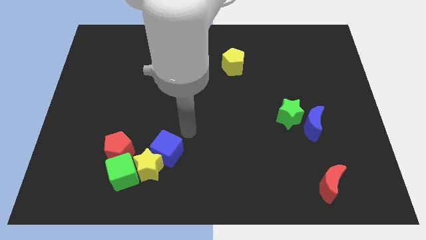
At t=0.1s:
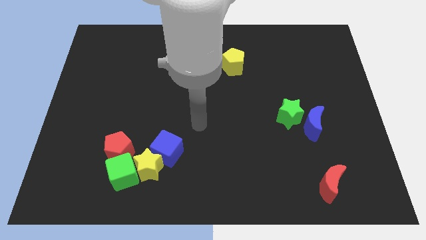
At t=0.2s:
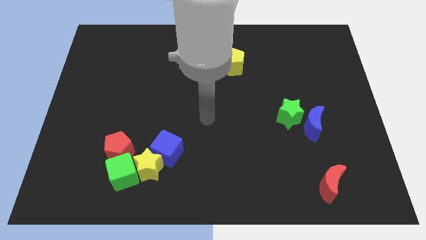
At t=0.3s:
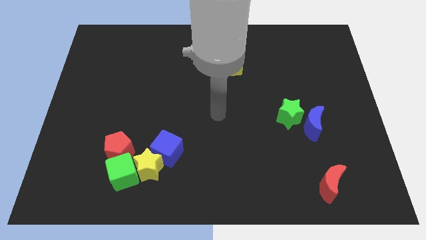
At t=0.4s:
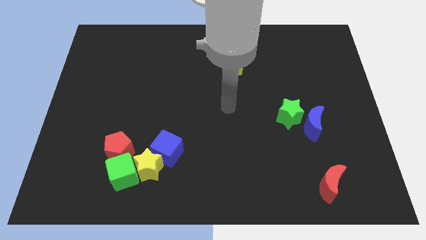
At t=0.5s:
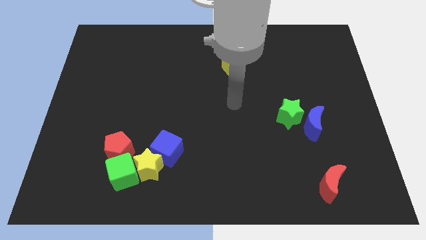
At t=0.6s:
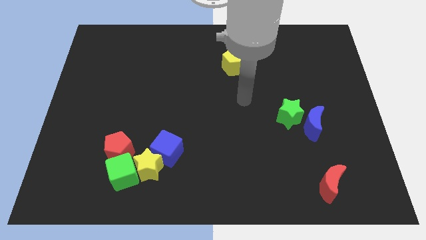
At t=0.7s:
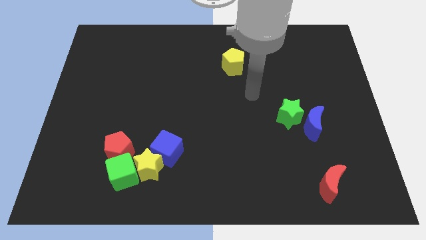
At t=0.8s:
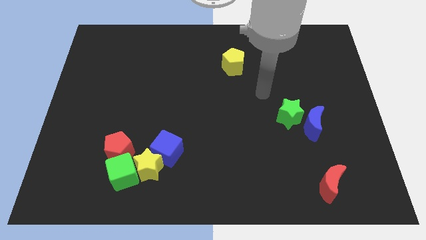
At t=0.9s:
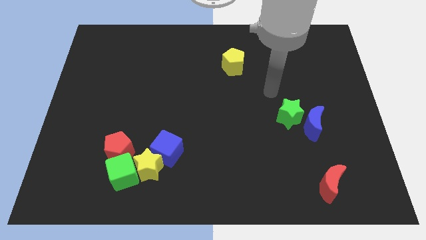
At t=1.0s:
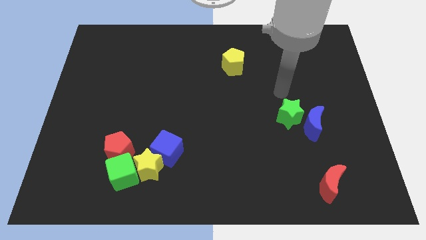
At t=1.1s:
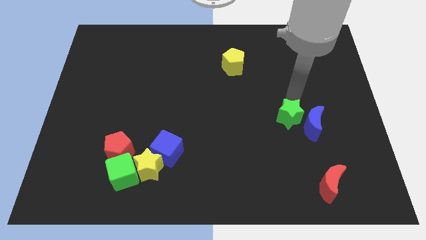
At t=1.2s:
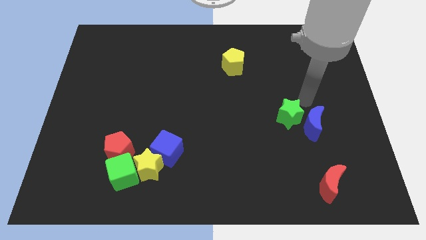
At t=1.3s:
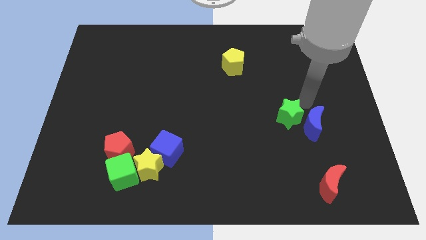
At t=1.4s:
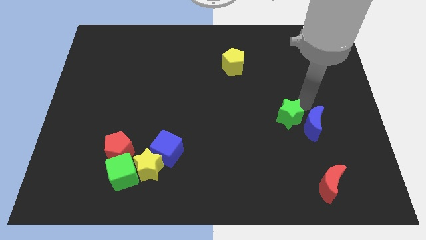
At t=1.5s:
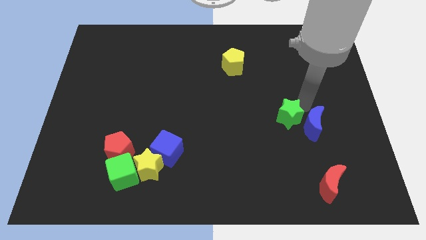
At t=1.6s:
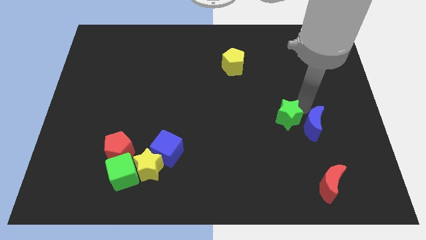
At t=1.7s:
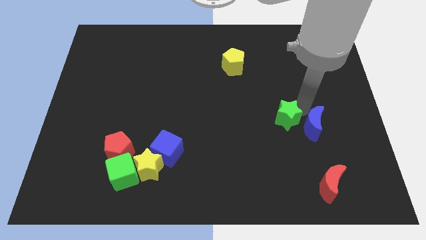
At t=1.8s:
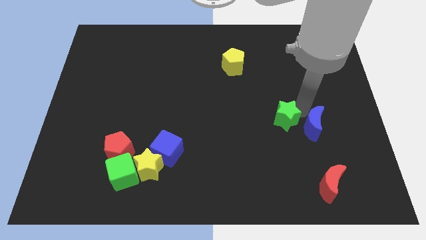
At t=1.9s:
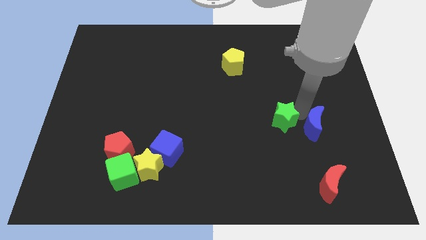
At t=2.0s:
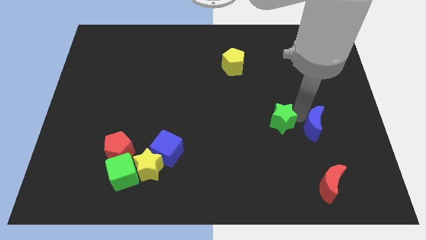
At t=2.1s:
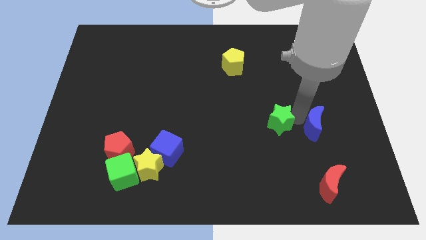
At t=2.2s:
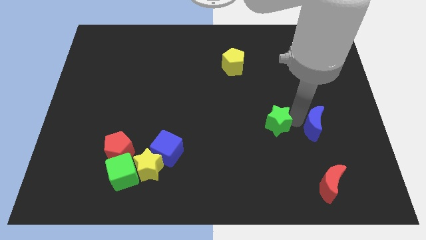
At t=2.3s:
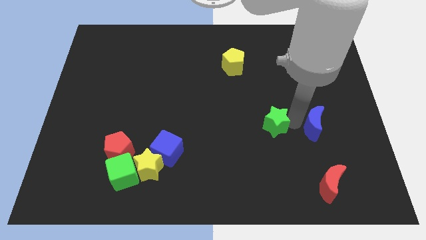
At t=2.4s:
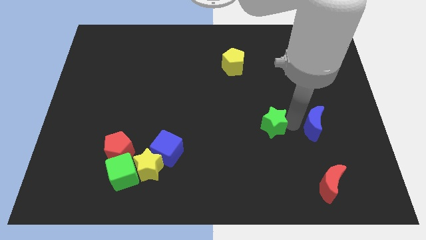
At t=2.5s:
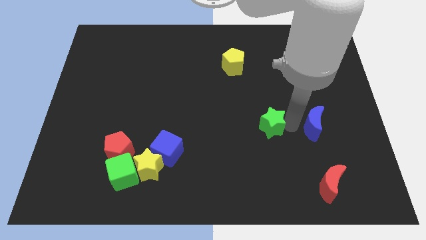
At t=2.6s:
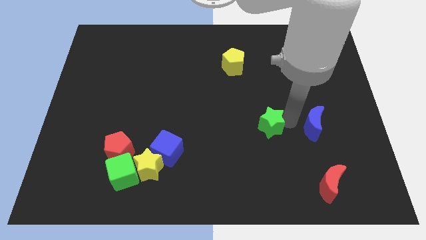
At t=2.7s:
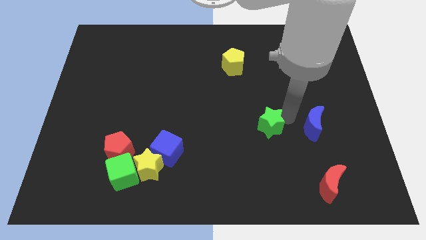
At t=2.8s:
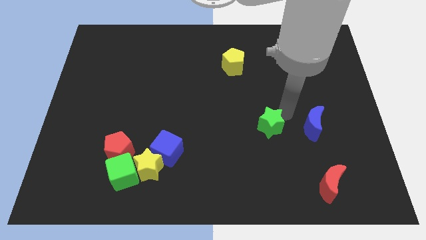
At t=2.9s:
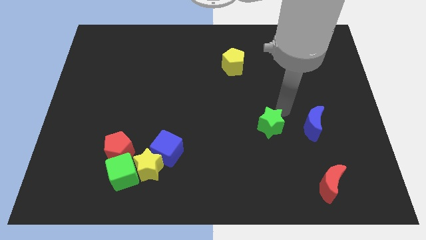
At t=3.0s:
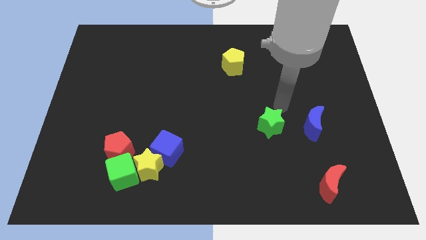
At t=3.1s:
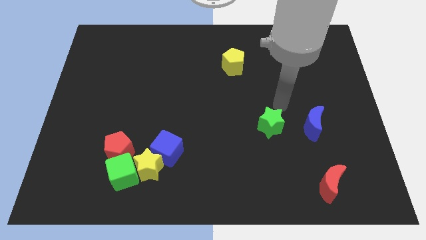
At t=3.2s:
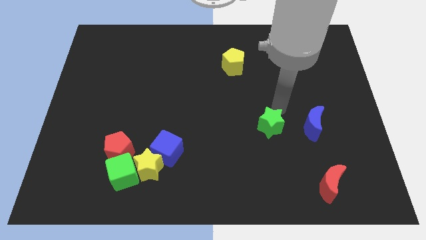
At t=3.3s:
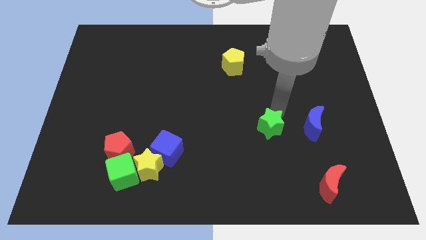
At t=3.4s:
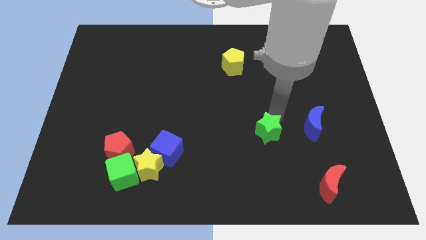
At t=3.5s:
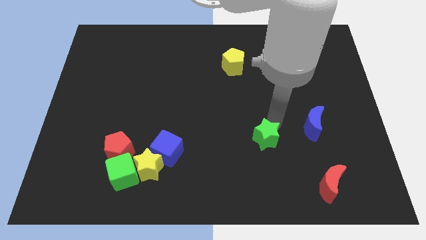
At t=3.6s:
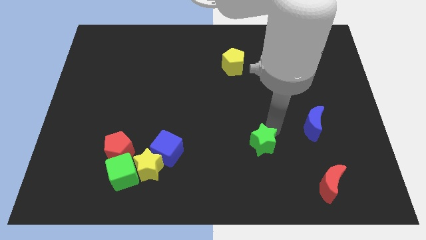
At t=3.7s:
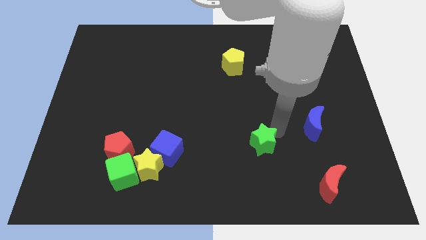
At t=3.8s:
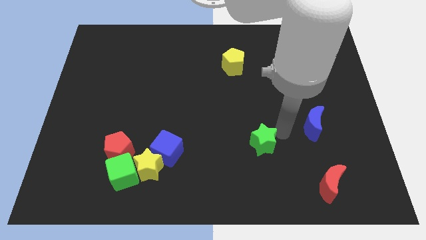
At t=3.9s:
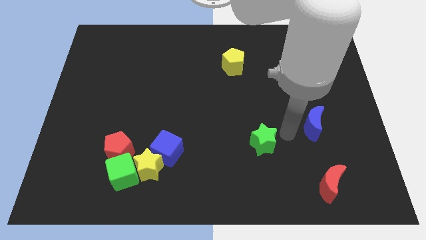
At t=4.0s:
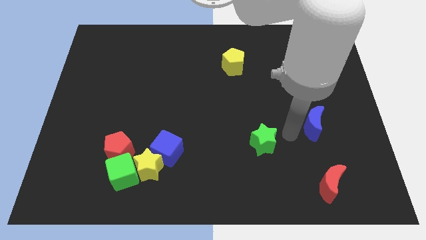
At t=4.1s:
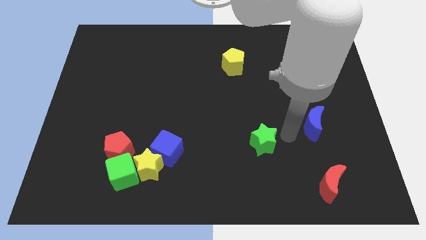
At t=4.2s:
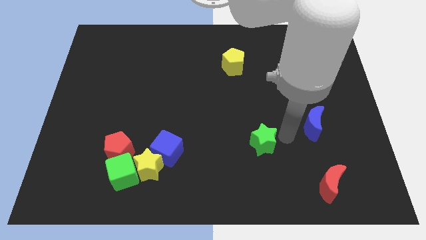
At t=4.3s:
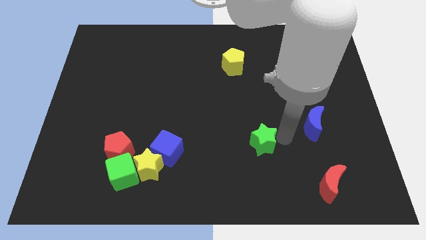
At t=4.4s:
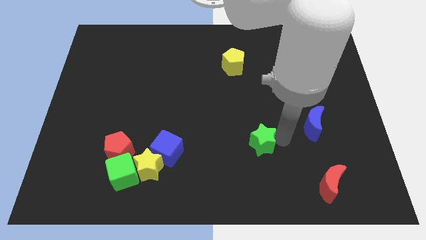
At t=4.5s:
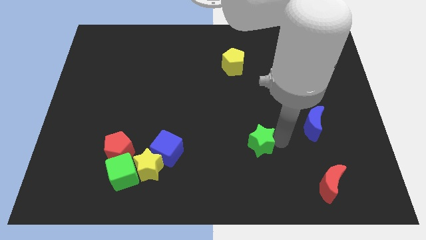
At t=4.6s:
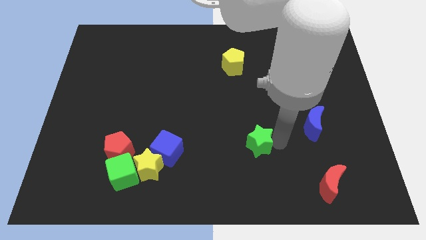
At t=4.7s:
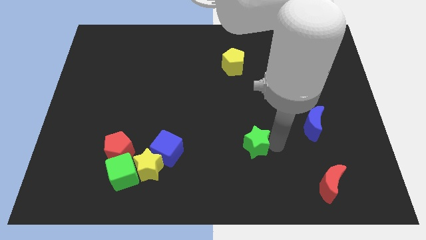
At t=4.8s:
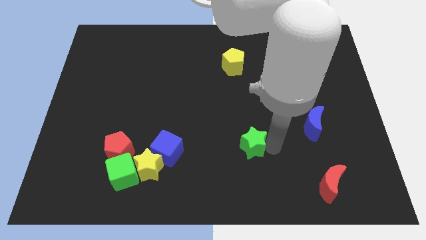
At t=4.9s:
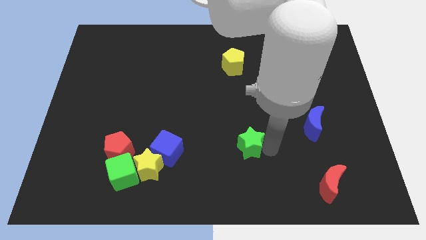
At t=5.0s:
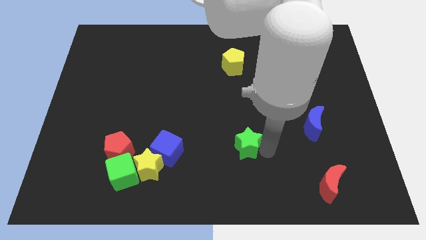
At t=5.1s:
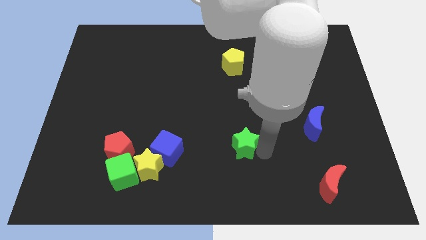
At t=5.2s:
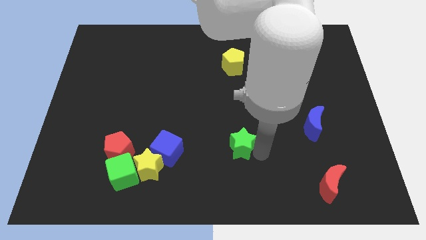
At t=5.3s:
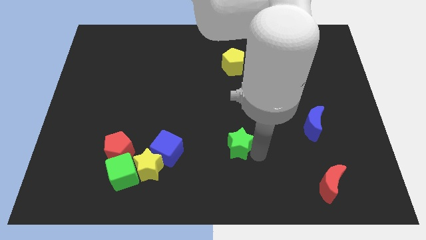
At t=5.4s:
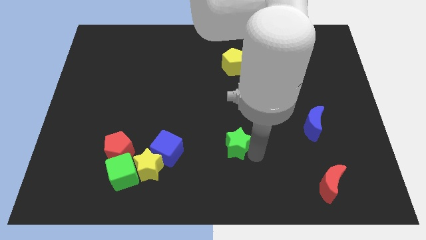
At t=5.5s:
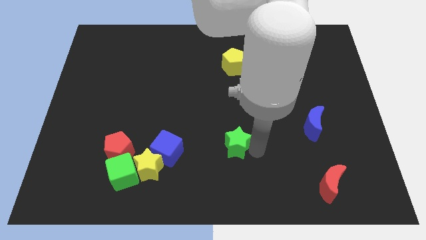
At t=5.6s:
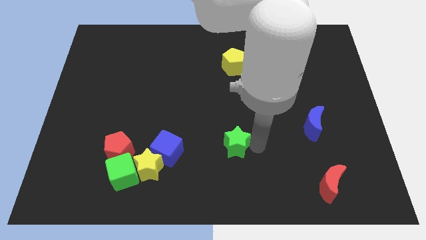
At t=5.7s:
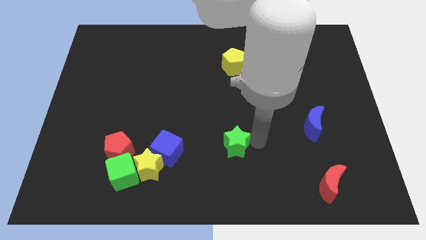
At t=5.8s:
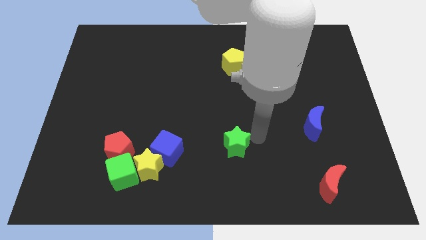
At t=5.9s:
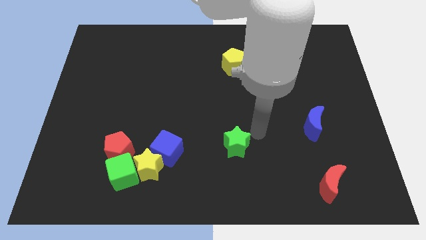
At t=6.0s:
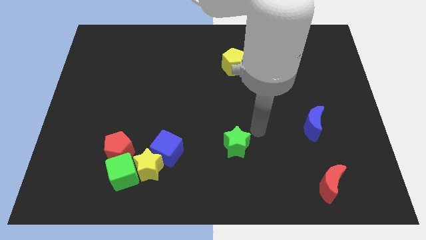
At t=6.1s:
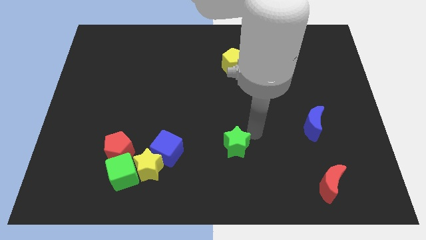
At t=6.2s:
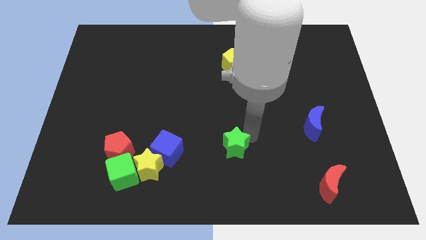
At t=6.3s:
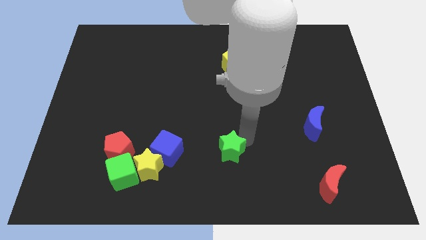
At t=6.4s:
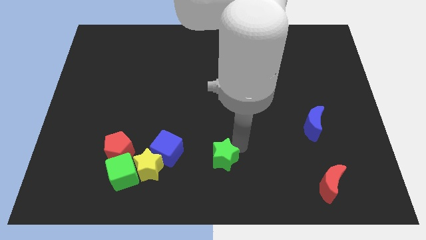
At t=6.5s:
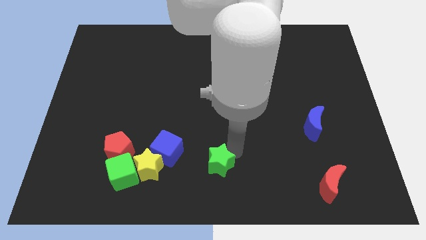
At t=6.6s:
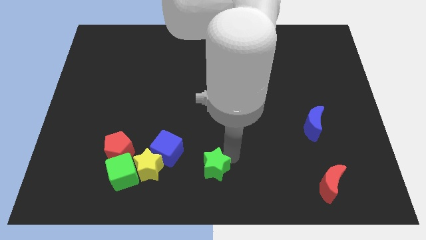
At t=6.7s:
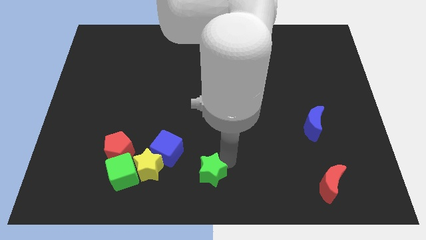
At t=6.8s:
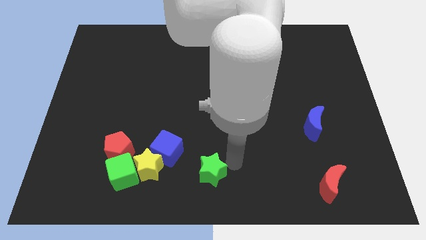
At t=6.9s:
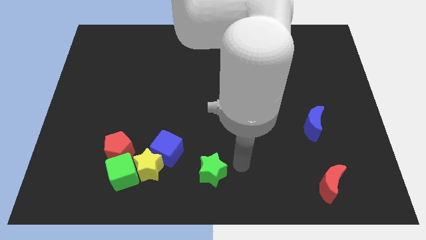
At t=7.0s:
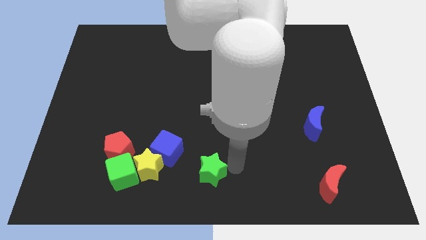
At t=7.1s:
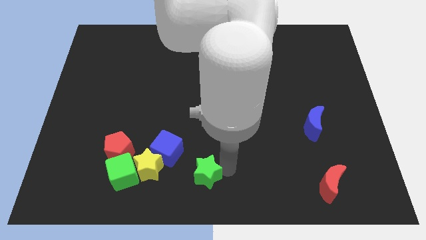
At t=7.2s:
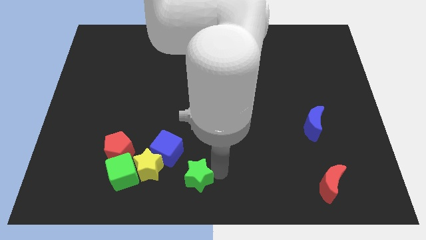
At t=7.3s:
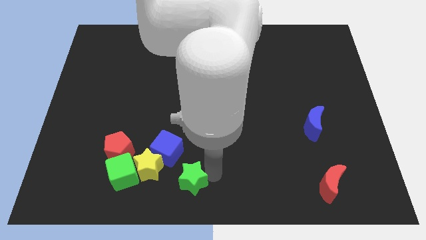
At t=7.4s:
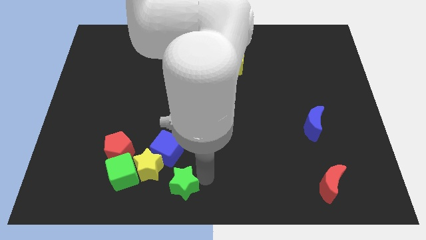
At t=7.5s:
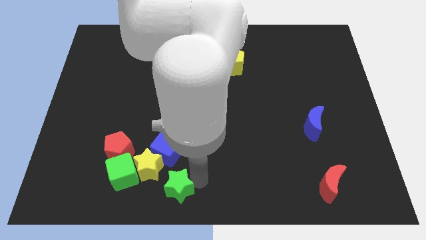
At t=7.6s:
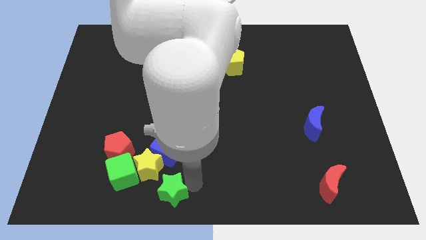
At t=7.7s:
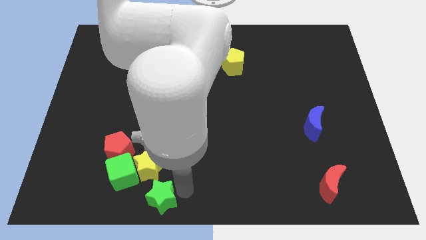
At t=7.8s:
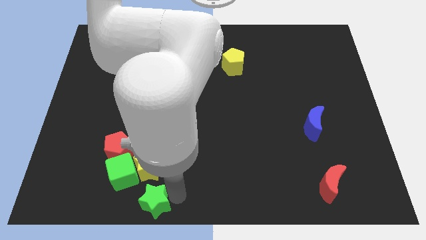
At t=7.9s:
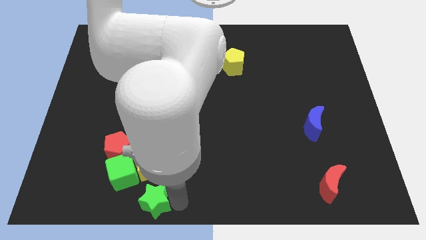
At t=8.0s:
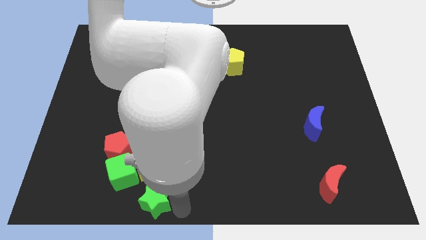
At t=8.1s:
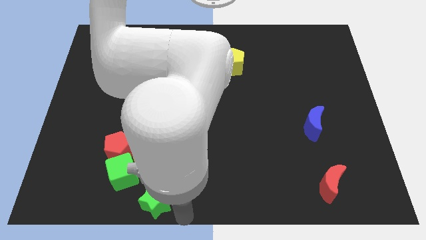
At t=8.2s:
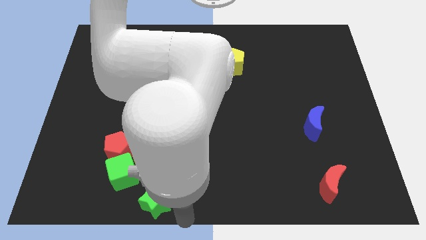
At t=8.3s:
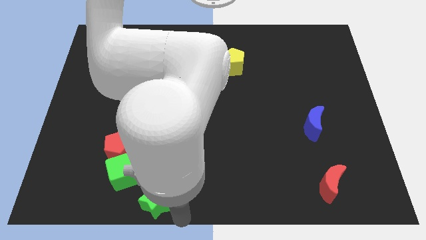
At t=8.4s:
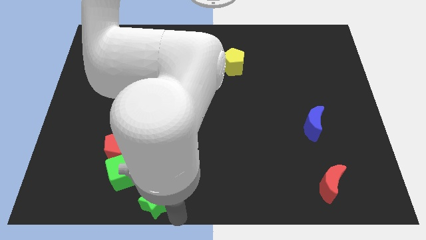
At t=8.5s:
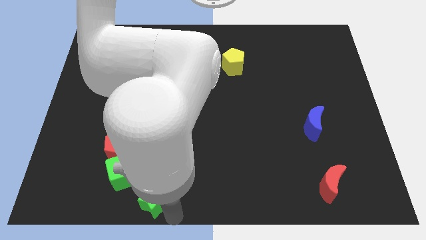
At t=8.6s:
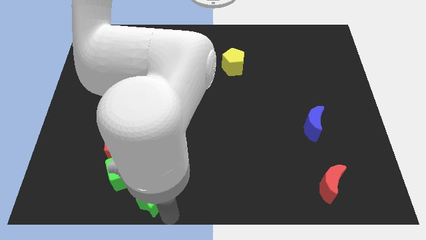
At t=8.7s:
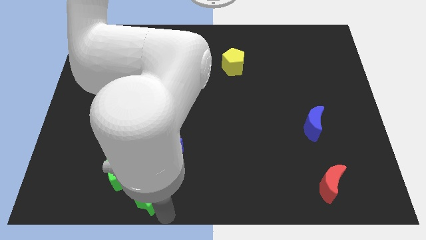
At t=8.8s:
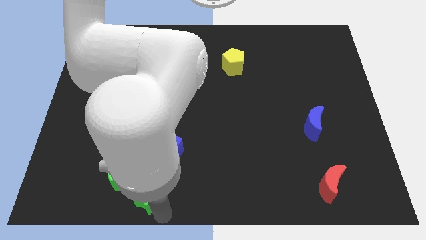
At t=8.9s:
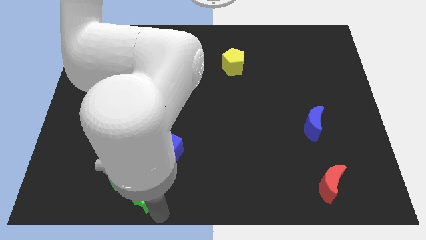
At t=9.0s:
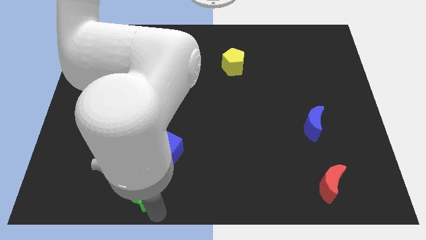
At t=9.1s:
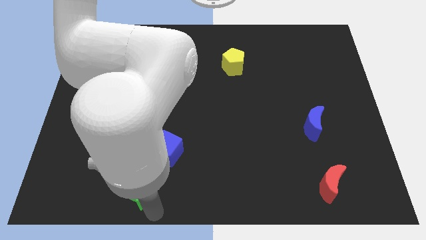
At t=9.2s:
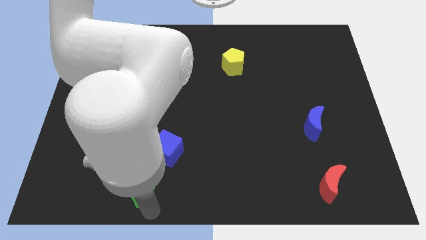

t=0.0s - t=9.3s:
push the green star next to the green cube
